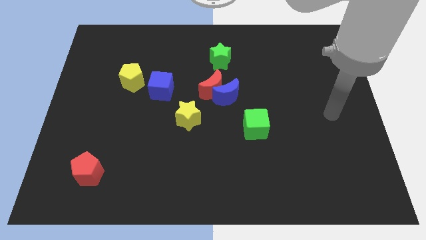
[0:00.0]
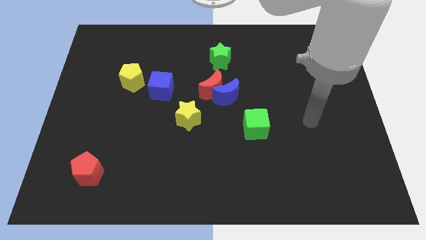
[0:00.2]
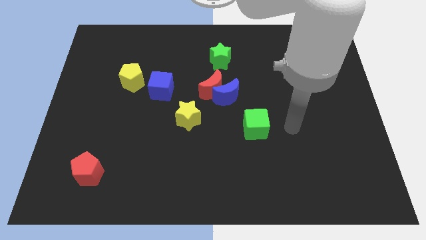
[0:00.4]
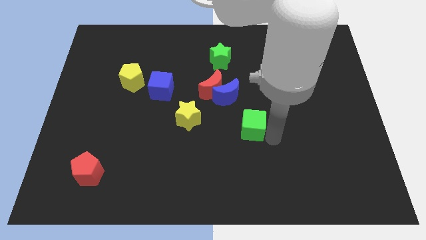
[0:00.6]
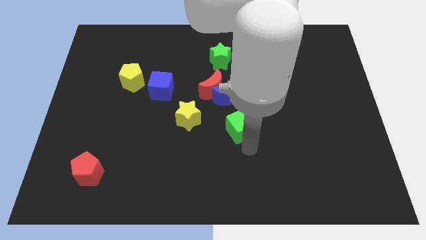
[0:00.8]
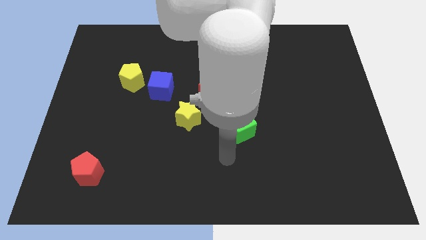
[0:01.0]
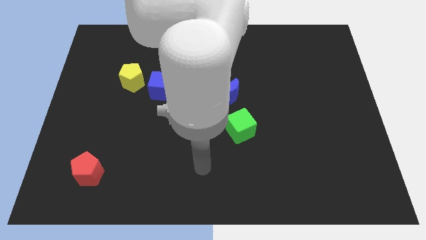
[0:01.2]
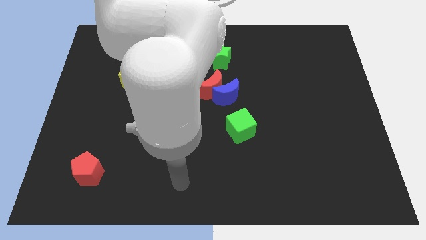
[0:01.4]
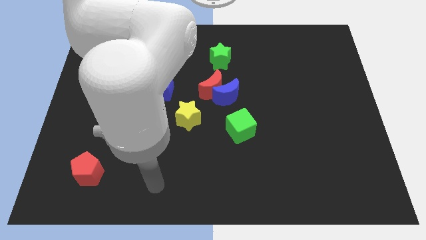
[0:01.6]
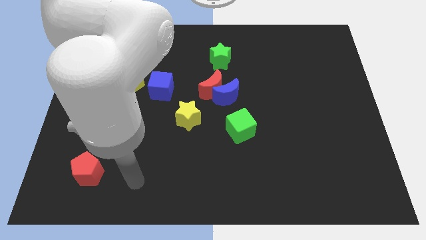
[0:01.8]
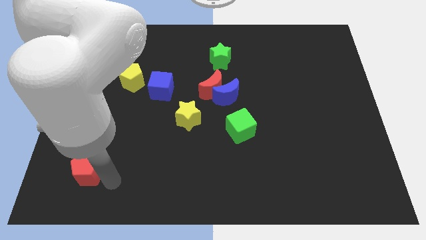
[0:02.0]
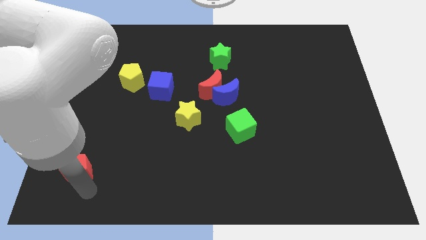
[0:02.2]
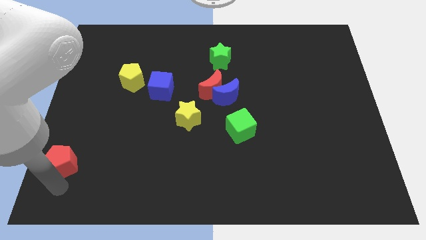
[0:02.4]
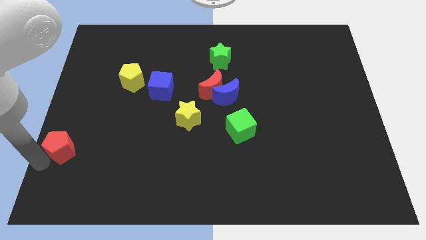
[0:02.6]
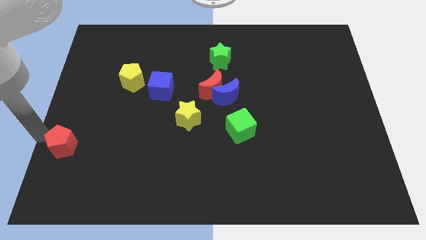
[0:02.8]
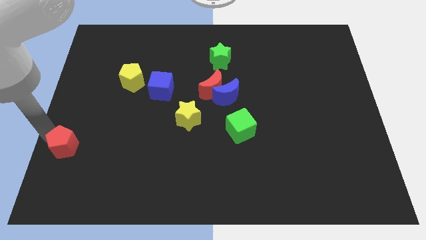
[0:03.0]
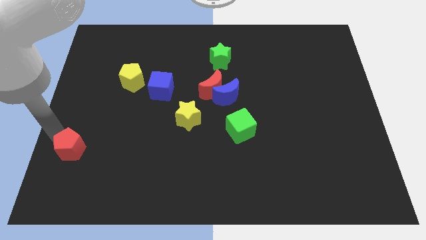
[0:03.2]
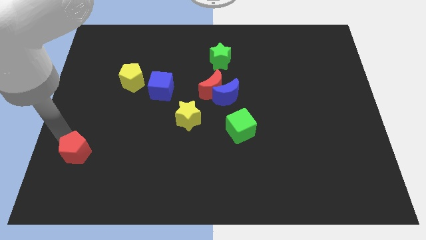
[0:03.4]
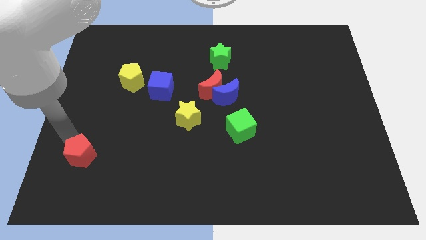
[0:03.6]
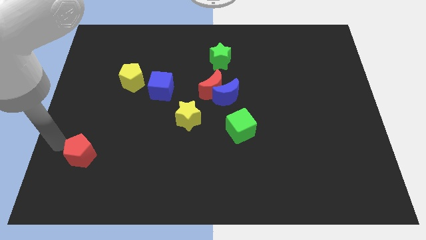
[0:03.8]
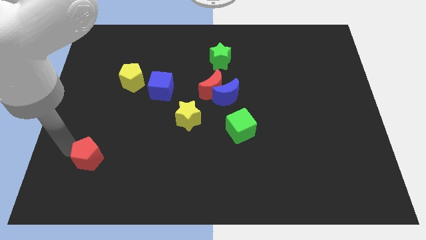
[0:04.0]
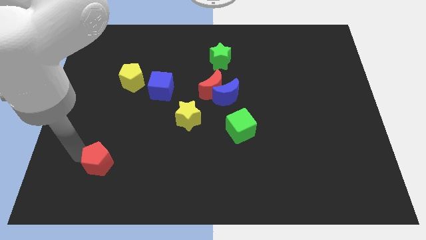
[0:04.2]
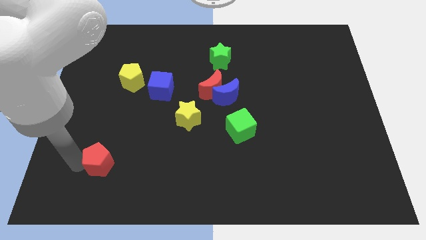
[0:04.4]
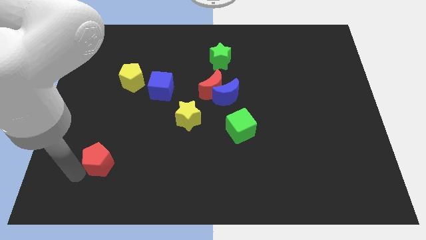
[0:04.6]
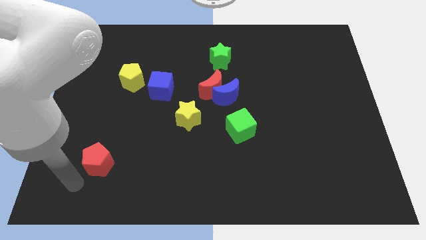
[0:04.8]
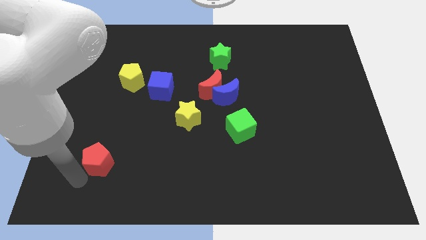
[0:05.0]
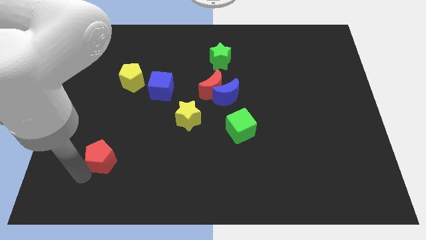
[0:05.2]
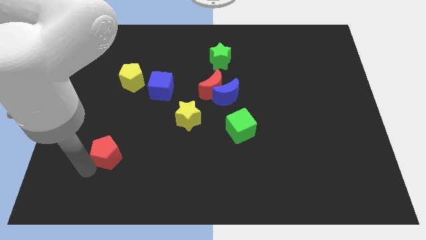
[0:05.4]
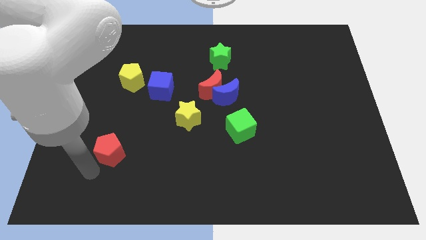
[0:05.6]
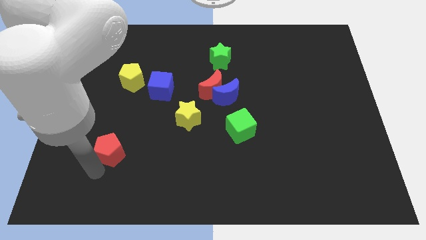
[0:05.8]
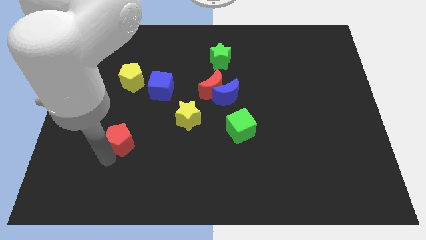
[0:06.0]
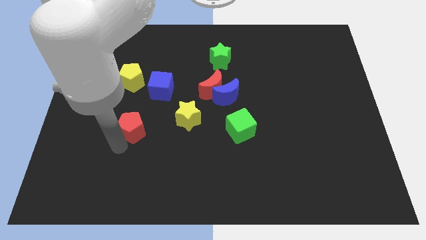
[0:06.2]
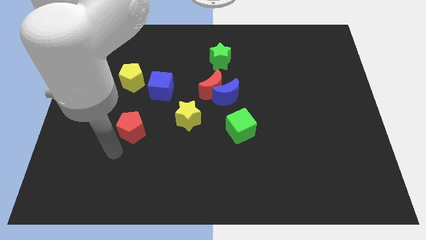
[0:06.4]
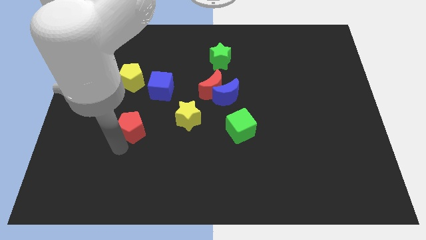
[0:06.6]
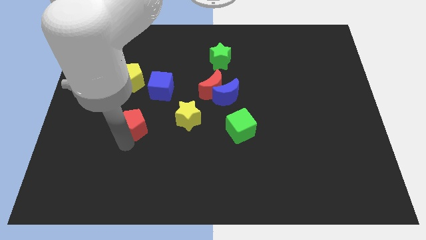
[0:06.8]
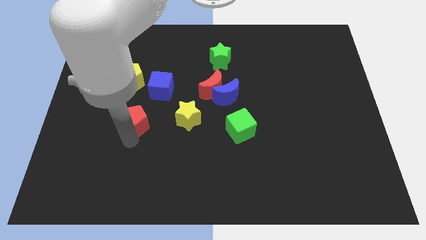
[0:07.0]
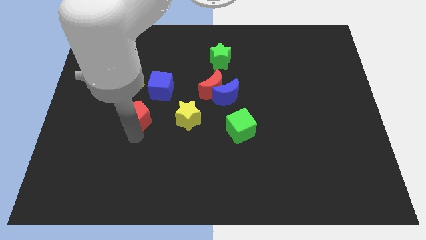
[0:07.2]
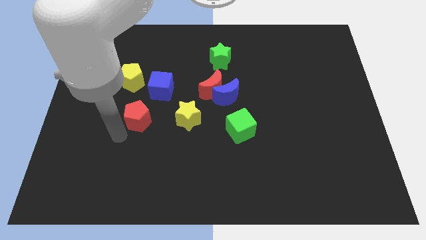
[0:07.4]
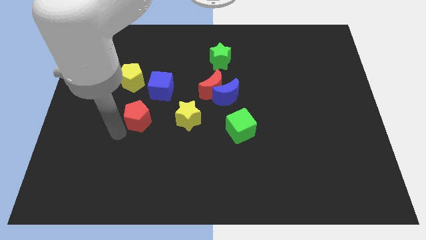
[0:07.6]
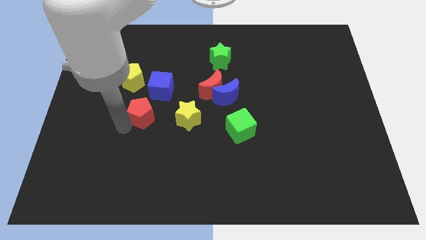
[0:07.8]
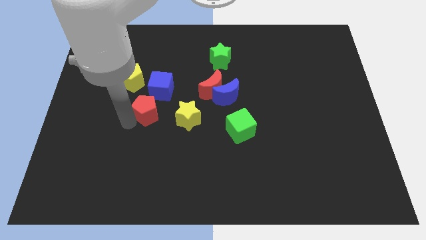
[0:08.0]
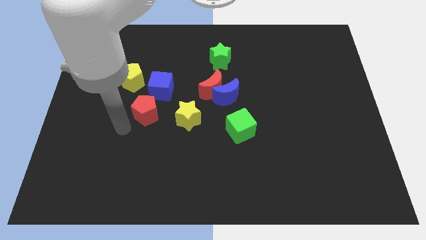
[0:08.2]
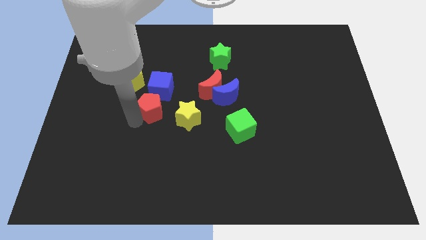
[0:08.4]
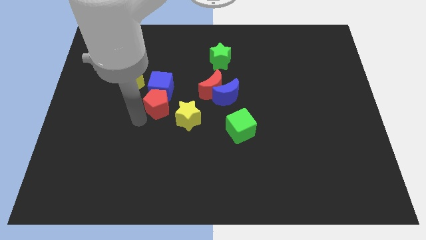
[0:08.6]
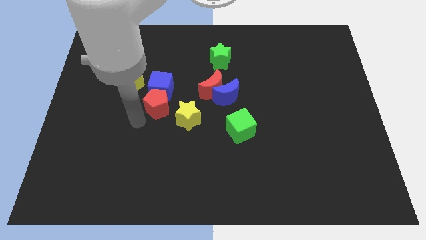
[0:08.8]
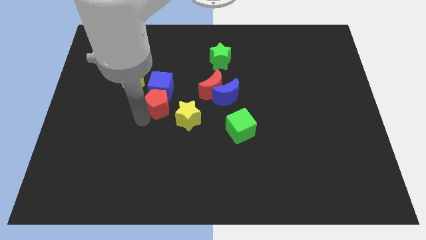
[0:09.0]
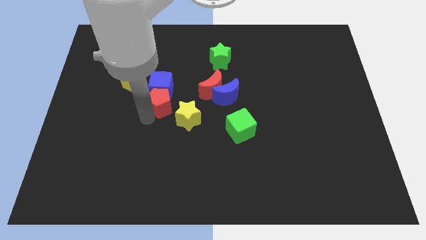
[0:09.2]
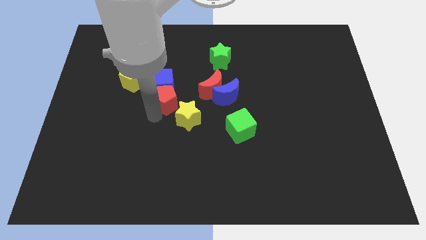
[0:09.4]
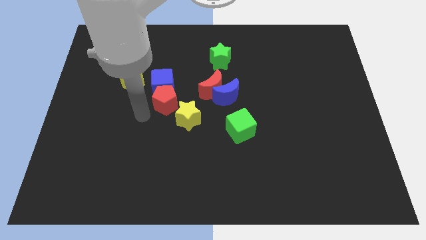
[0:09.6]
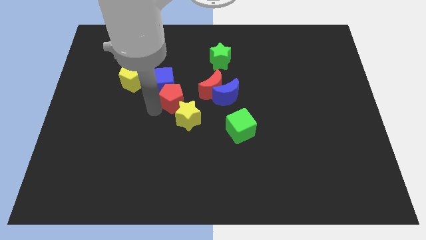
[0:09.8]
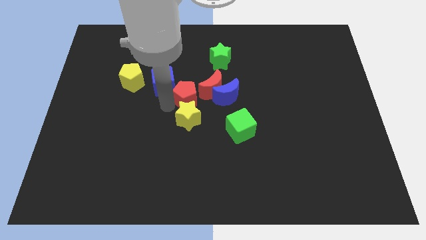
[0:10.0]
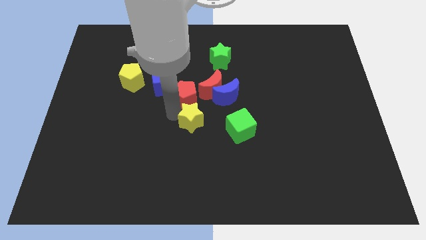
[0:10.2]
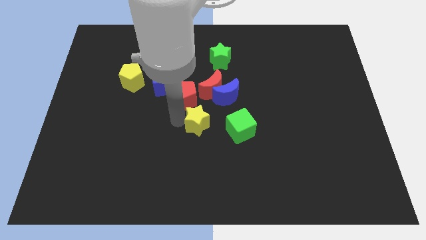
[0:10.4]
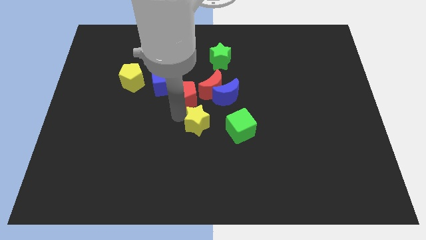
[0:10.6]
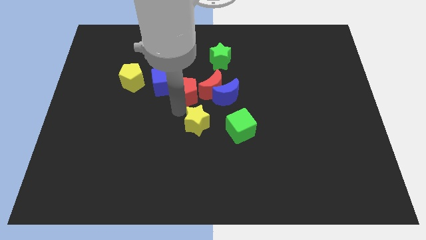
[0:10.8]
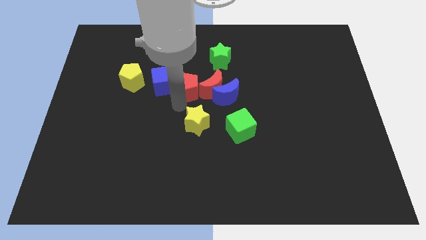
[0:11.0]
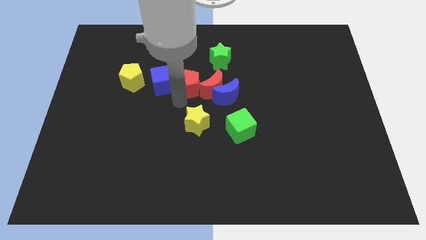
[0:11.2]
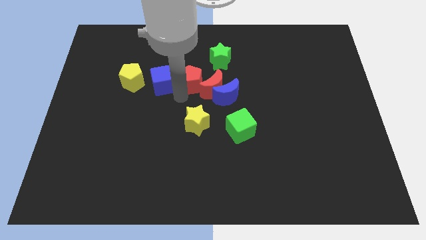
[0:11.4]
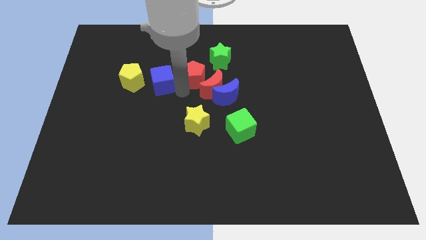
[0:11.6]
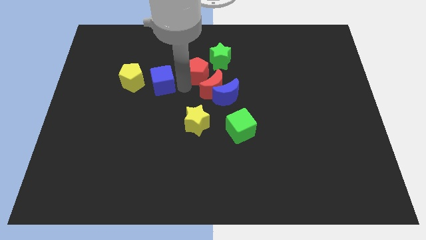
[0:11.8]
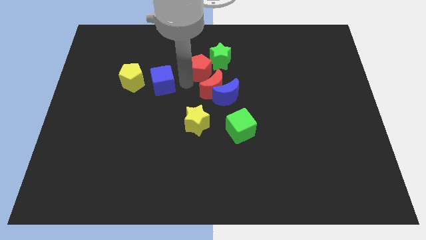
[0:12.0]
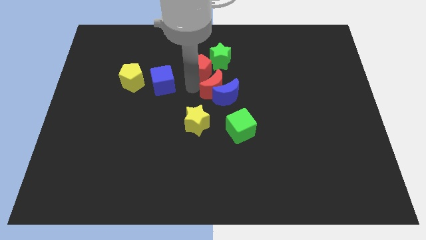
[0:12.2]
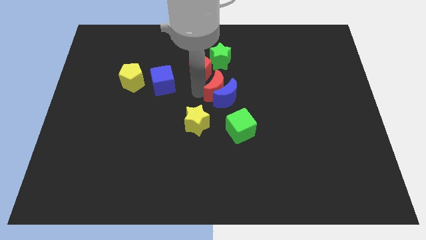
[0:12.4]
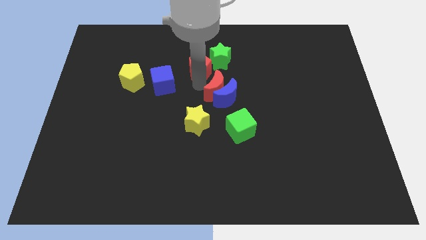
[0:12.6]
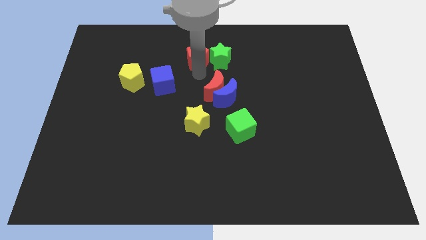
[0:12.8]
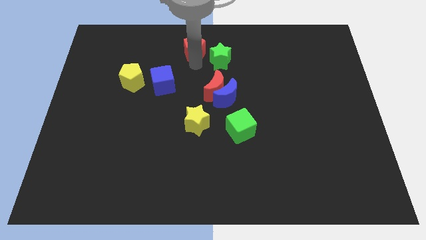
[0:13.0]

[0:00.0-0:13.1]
push the red pentagon to the towards your base
